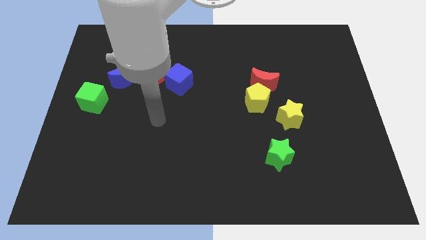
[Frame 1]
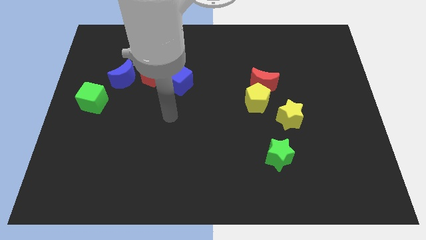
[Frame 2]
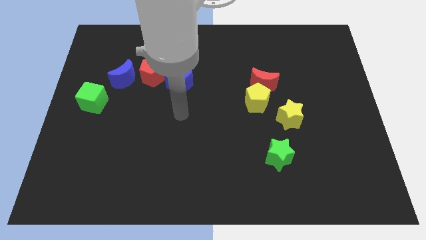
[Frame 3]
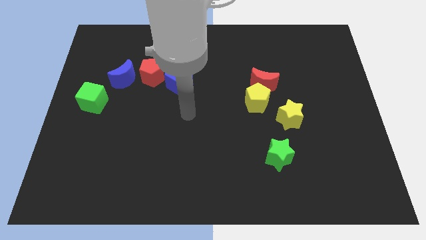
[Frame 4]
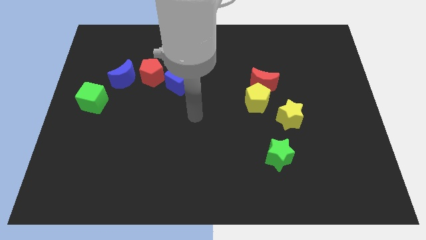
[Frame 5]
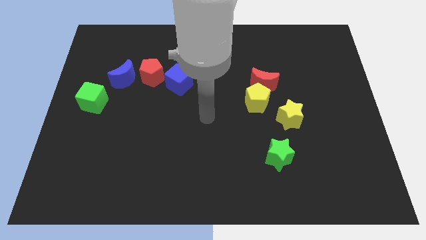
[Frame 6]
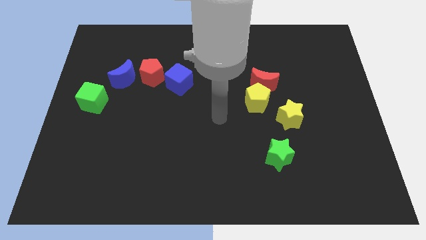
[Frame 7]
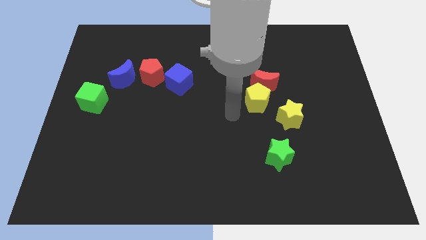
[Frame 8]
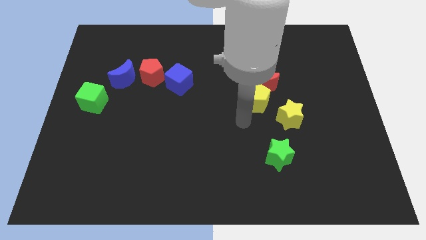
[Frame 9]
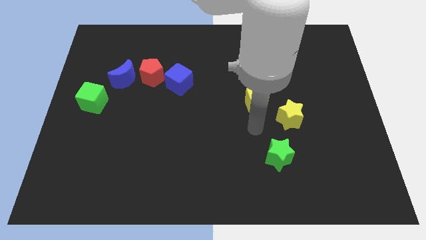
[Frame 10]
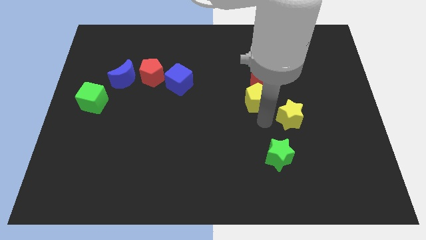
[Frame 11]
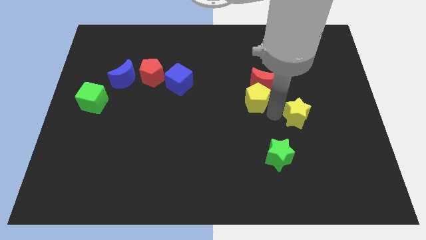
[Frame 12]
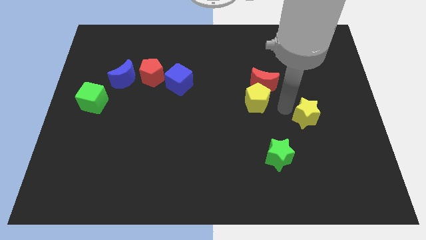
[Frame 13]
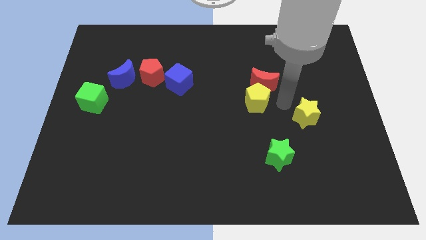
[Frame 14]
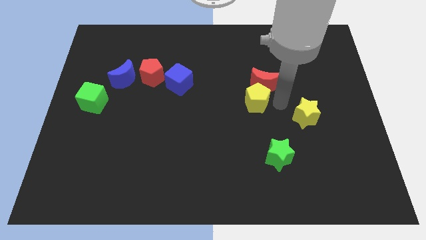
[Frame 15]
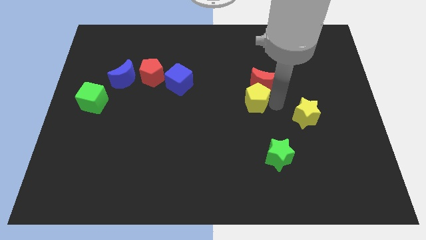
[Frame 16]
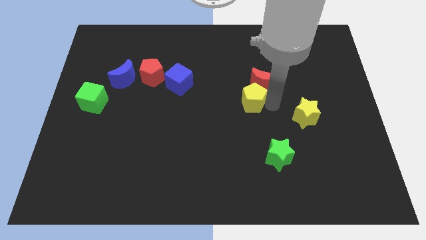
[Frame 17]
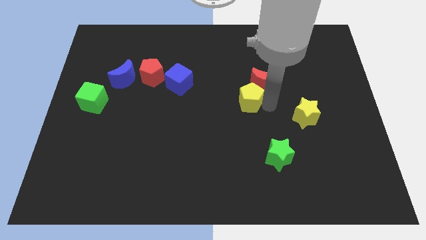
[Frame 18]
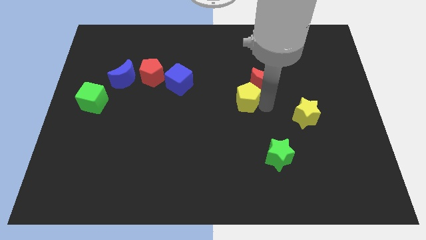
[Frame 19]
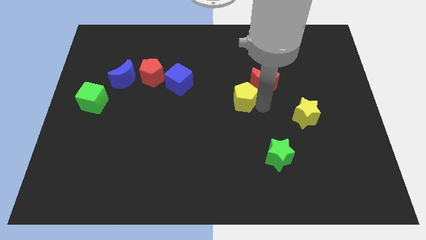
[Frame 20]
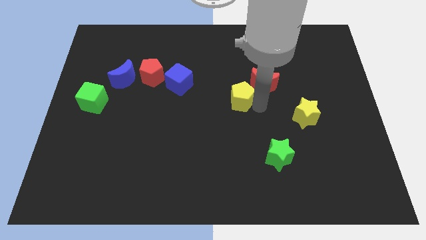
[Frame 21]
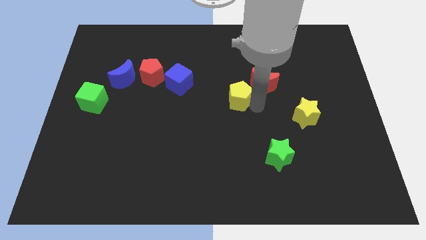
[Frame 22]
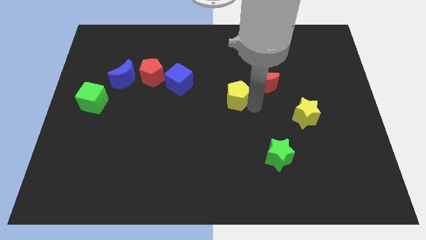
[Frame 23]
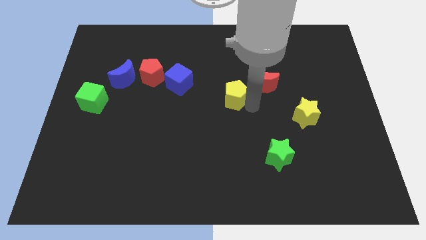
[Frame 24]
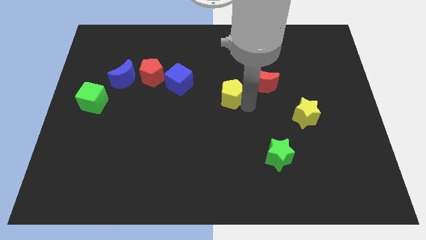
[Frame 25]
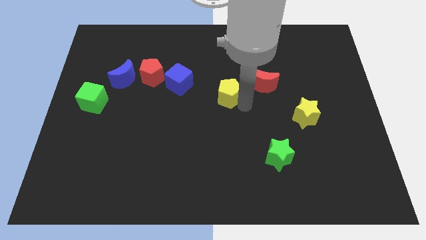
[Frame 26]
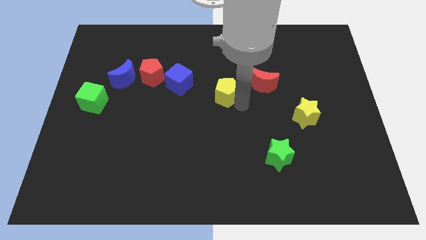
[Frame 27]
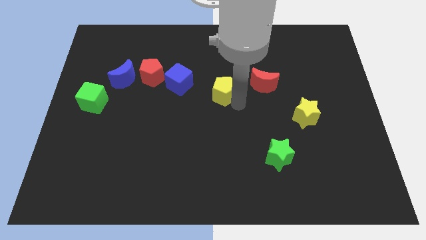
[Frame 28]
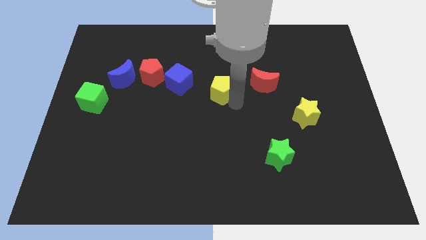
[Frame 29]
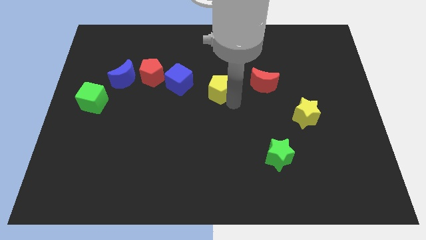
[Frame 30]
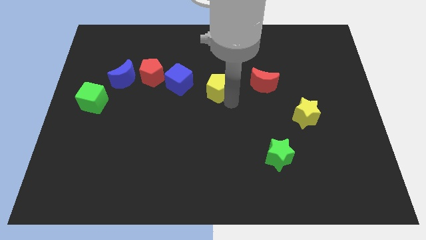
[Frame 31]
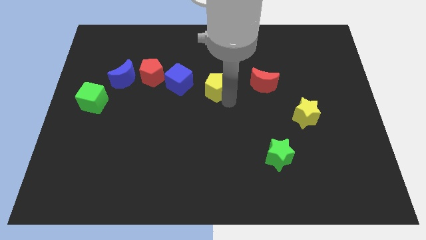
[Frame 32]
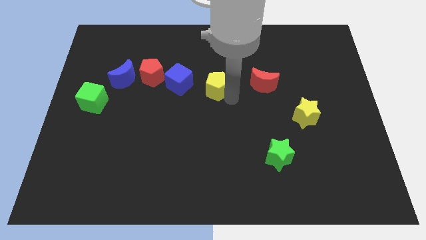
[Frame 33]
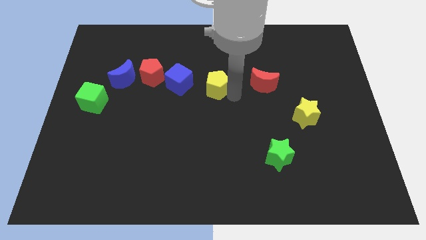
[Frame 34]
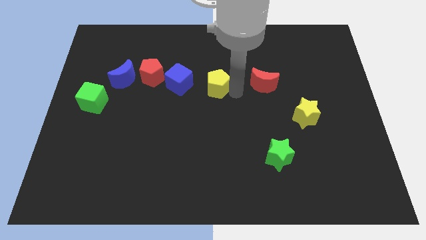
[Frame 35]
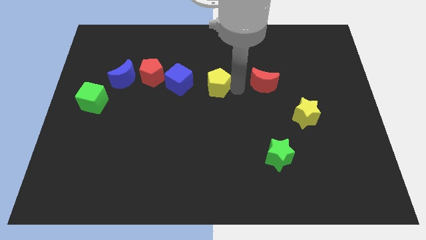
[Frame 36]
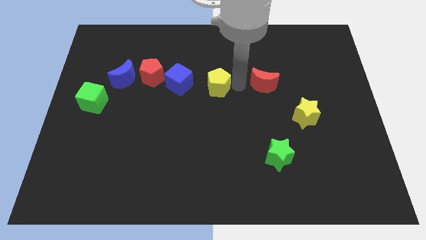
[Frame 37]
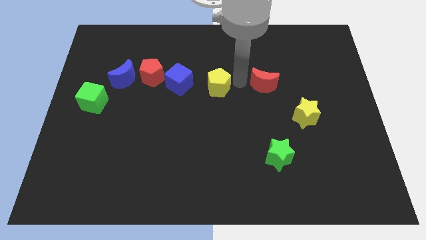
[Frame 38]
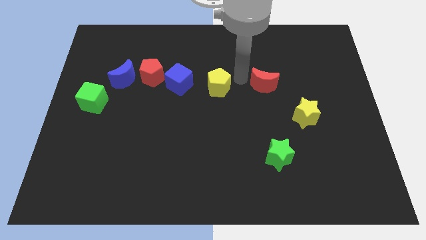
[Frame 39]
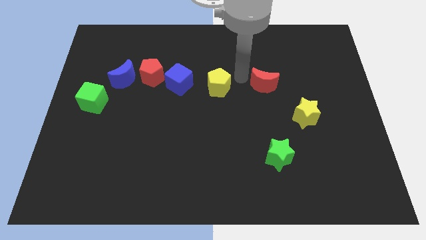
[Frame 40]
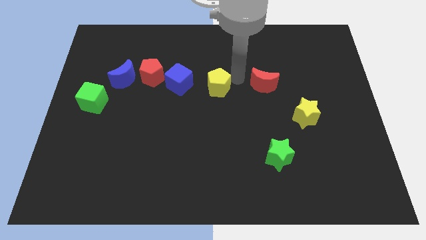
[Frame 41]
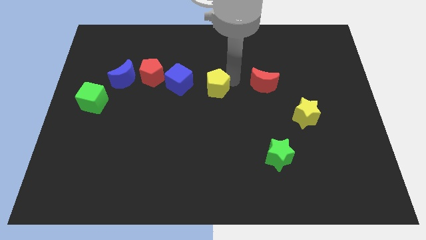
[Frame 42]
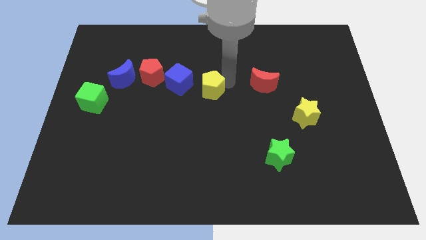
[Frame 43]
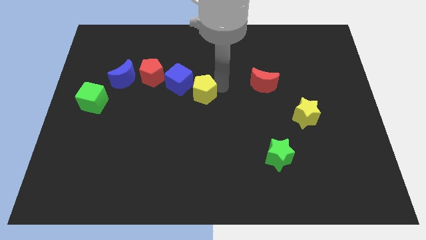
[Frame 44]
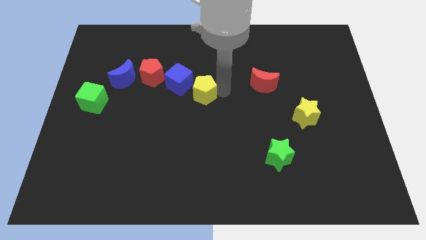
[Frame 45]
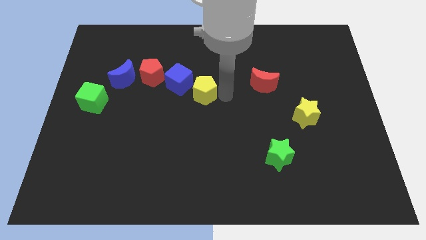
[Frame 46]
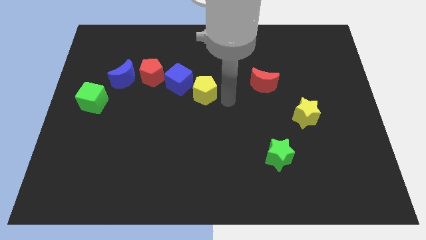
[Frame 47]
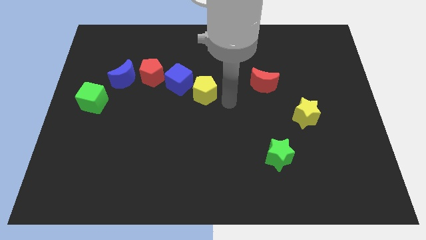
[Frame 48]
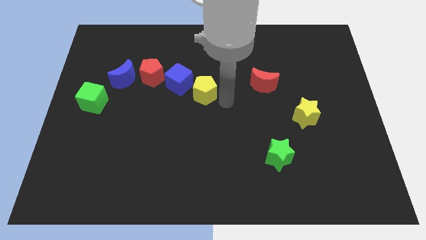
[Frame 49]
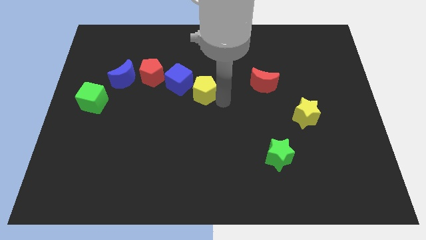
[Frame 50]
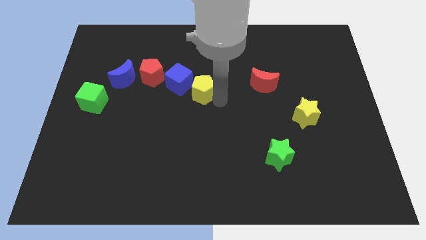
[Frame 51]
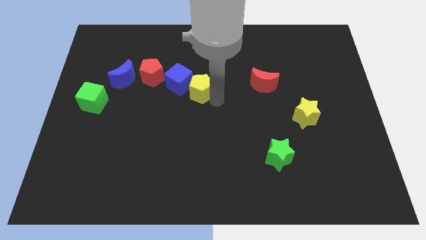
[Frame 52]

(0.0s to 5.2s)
put the yellow pentagon next to the blue cube

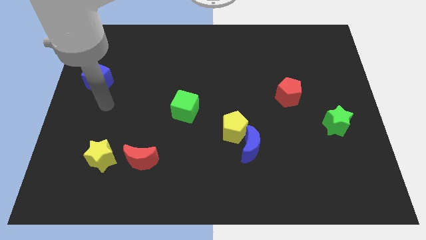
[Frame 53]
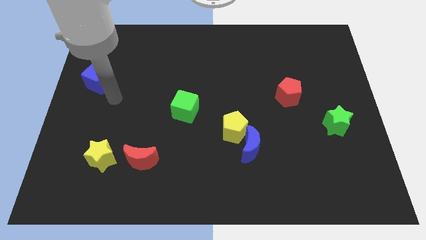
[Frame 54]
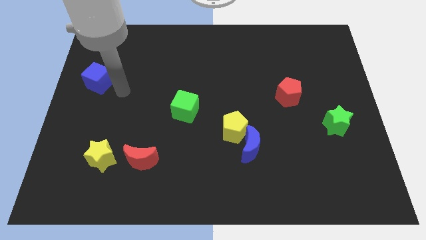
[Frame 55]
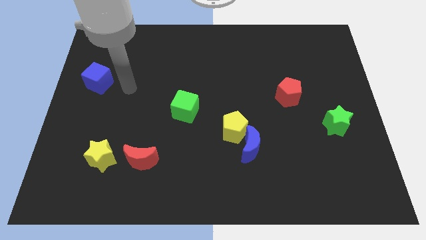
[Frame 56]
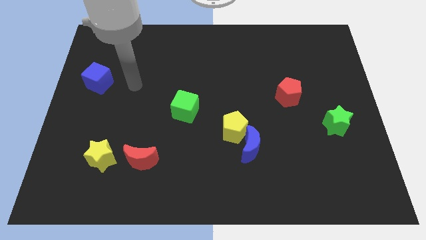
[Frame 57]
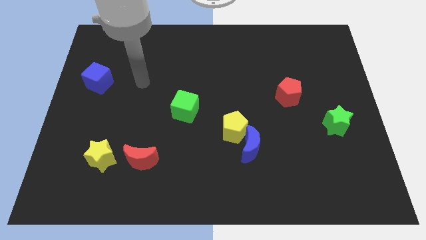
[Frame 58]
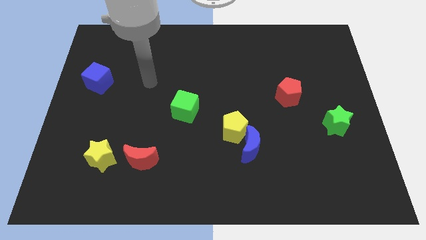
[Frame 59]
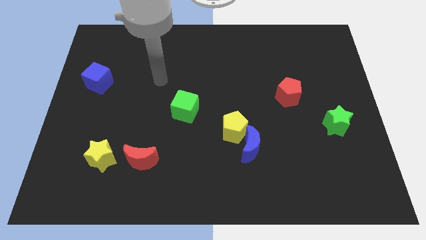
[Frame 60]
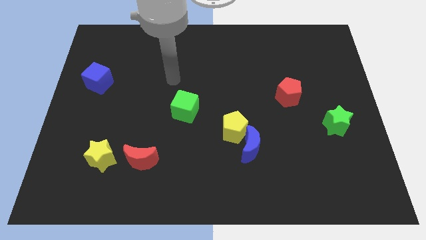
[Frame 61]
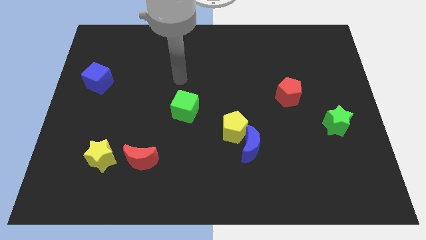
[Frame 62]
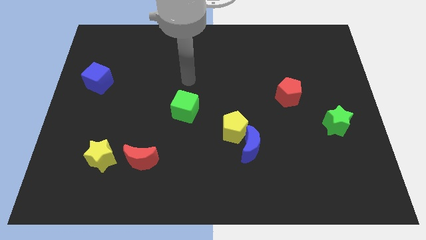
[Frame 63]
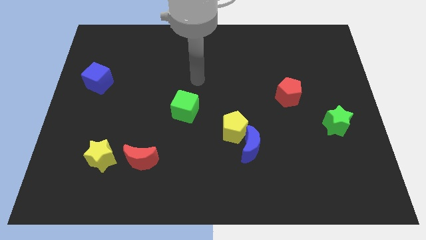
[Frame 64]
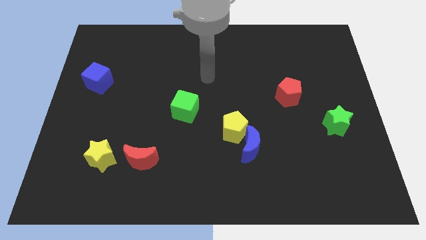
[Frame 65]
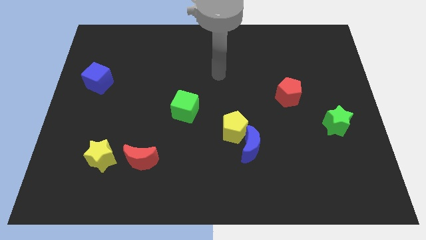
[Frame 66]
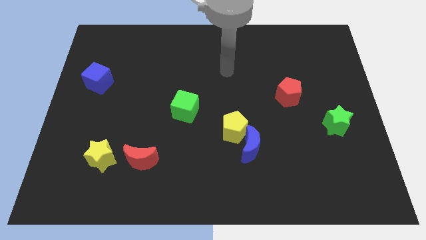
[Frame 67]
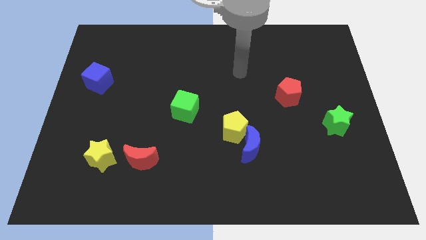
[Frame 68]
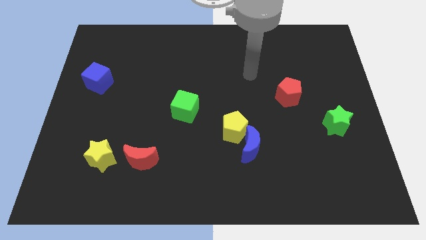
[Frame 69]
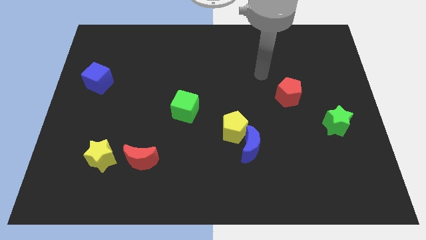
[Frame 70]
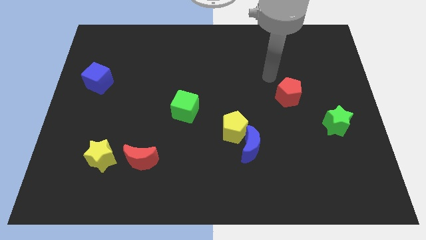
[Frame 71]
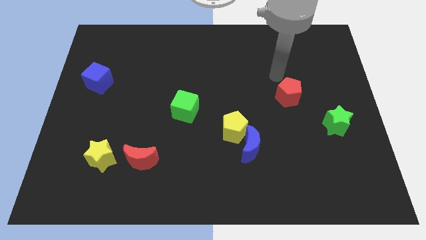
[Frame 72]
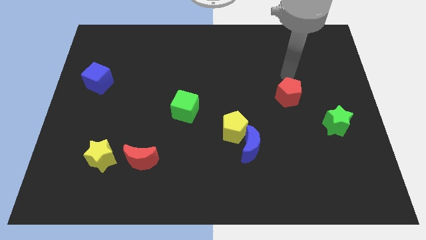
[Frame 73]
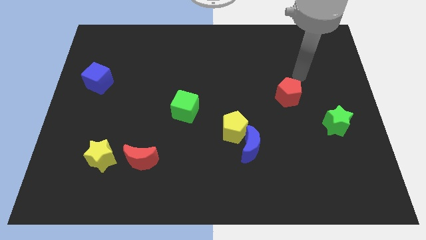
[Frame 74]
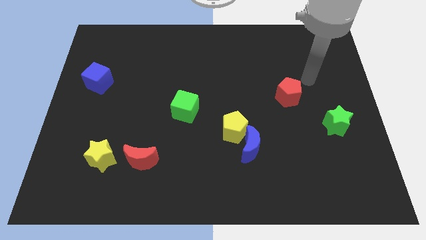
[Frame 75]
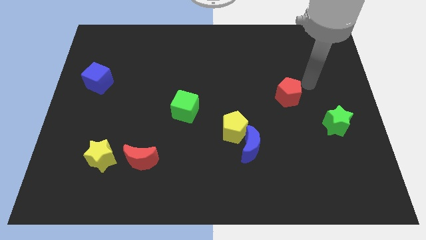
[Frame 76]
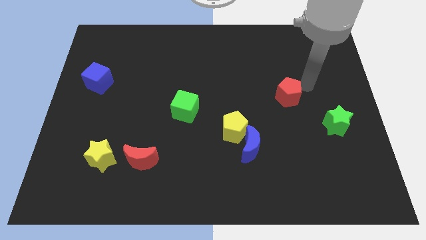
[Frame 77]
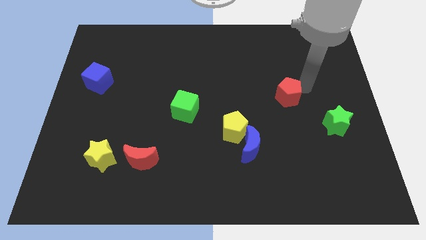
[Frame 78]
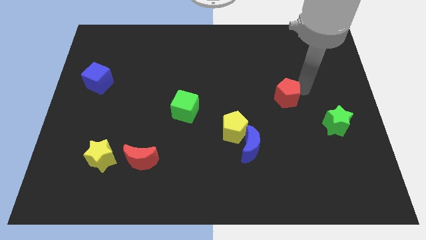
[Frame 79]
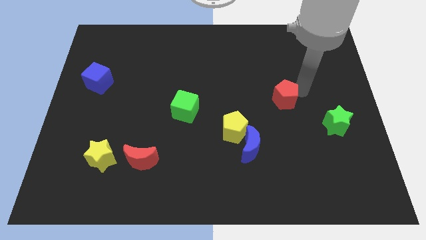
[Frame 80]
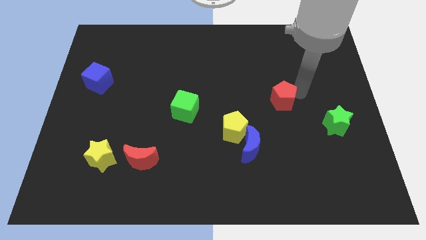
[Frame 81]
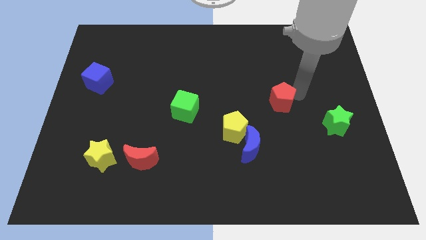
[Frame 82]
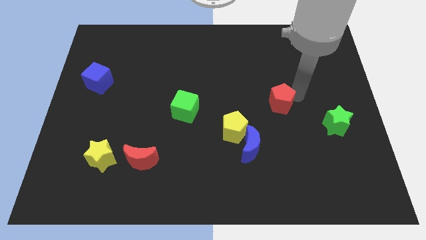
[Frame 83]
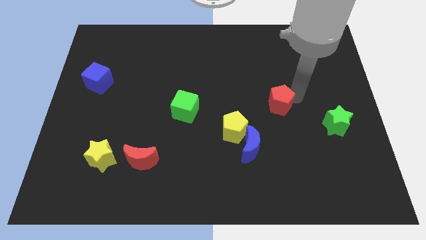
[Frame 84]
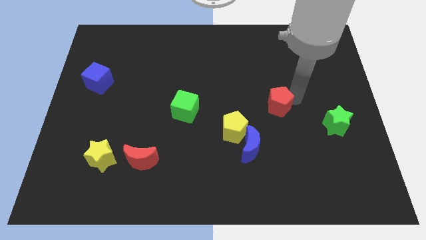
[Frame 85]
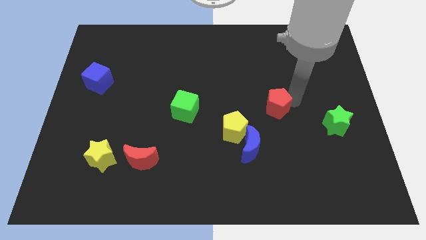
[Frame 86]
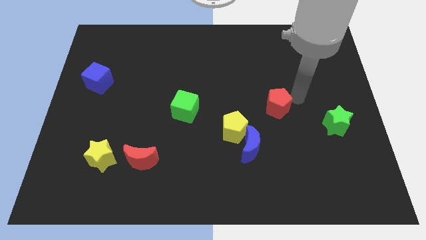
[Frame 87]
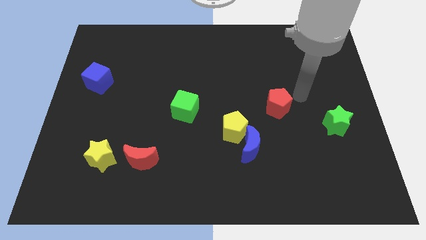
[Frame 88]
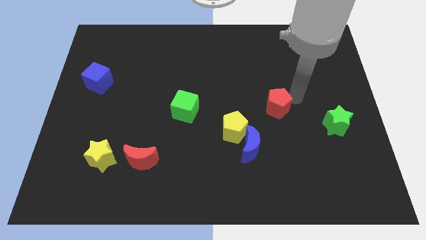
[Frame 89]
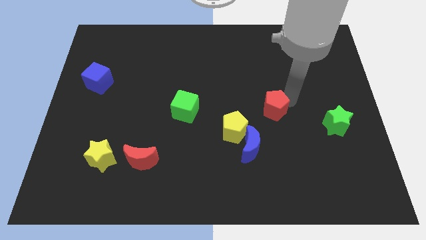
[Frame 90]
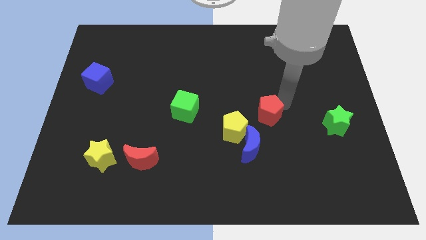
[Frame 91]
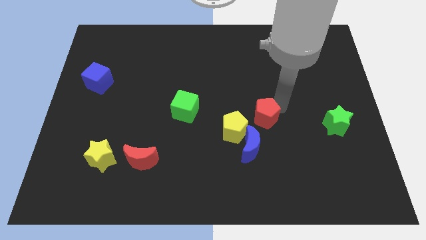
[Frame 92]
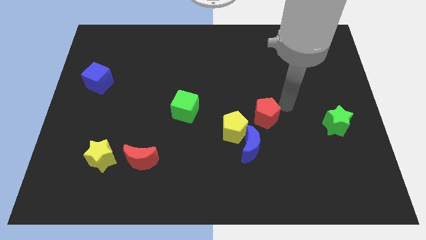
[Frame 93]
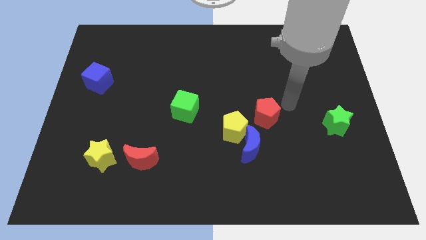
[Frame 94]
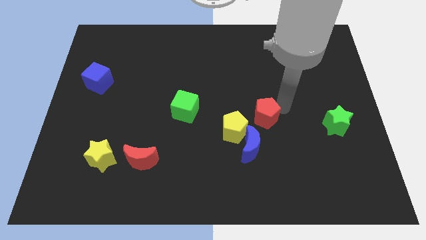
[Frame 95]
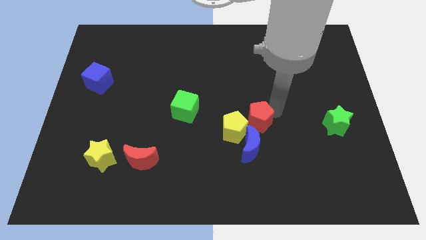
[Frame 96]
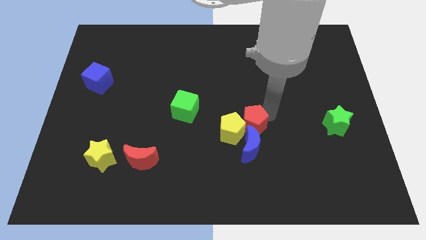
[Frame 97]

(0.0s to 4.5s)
push the red pentagon close to the yellow pentagon
